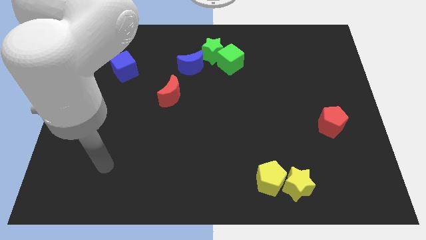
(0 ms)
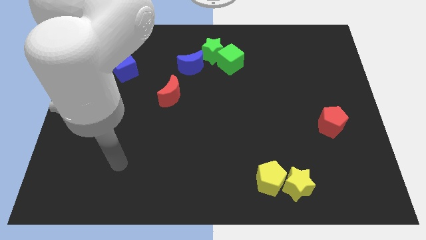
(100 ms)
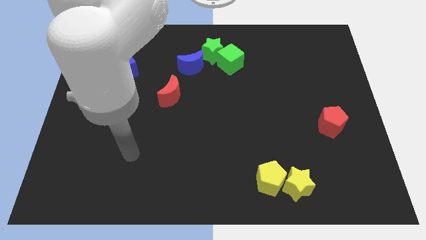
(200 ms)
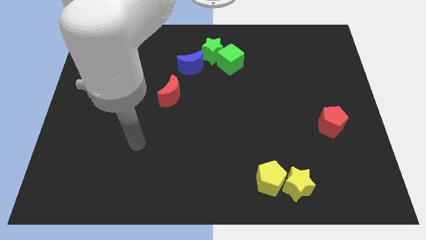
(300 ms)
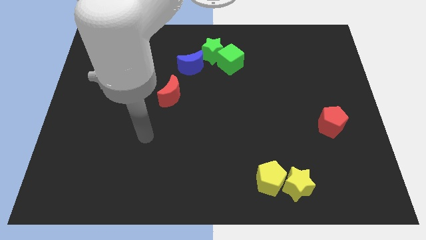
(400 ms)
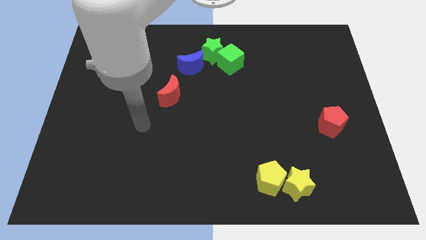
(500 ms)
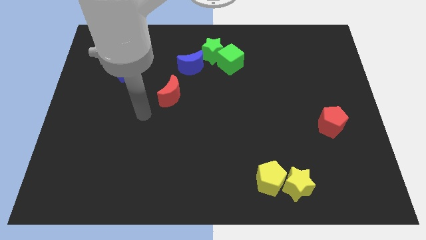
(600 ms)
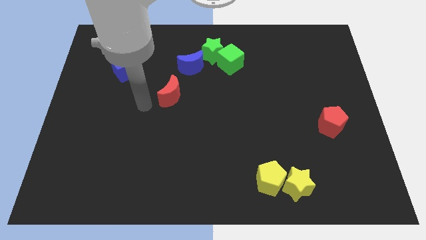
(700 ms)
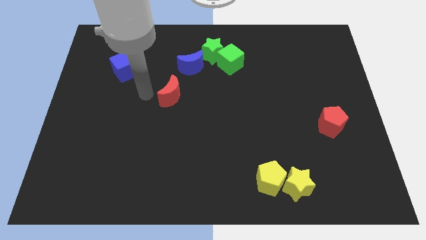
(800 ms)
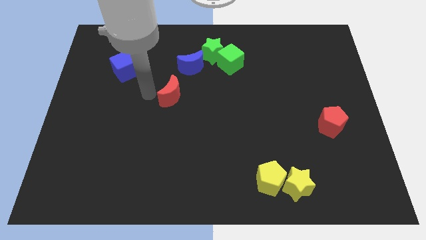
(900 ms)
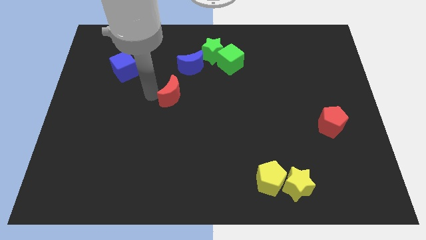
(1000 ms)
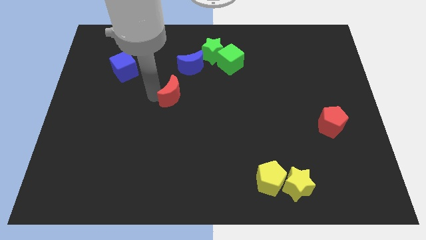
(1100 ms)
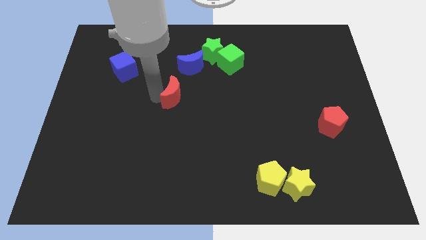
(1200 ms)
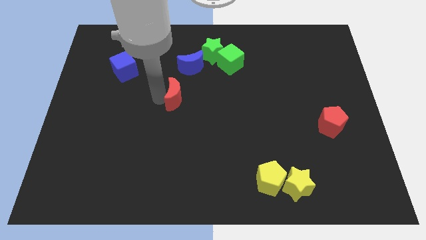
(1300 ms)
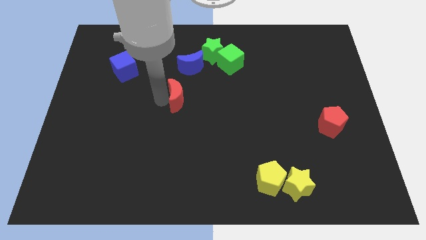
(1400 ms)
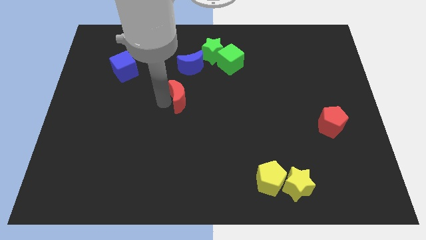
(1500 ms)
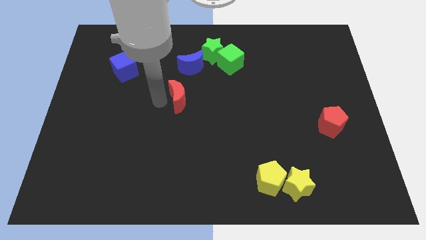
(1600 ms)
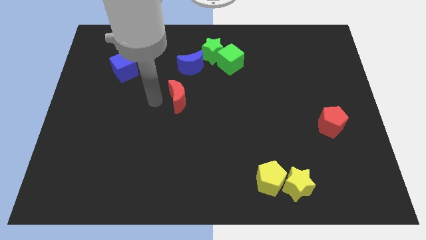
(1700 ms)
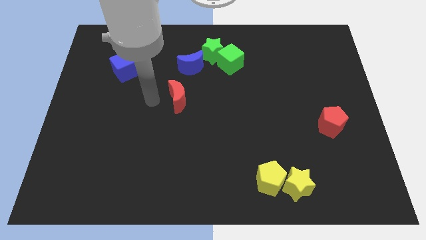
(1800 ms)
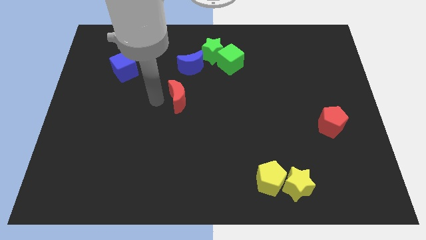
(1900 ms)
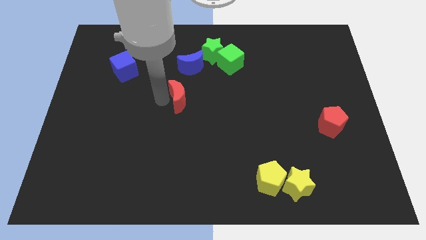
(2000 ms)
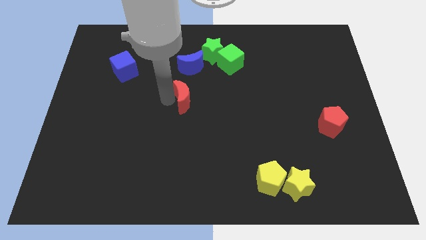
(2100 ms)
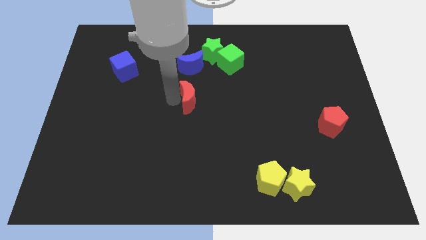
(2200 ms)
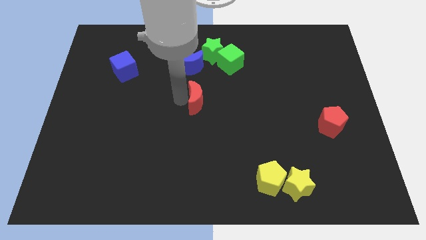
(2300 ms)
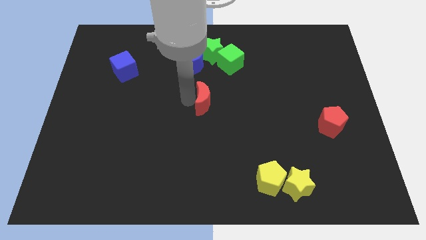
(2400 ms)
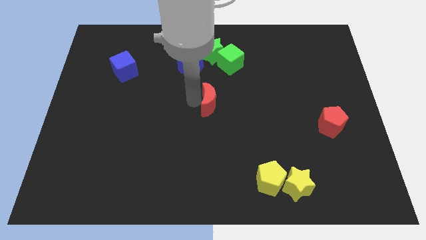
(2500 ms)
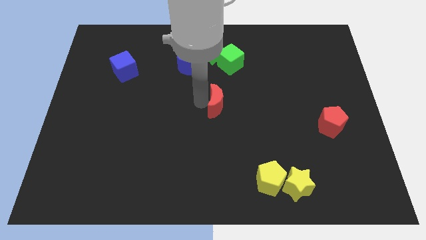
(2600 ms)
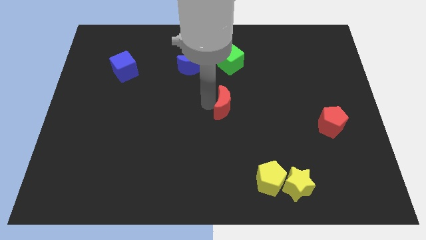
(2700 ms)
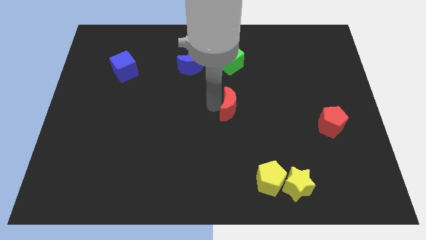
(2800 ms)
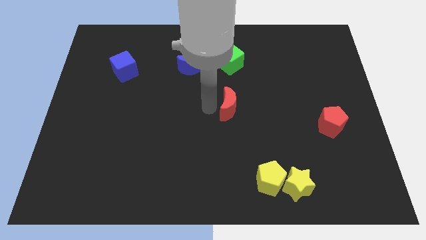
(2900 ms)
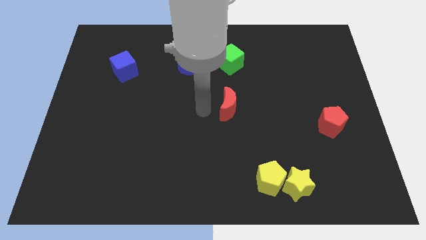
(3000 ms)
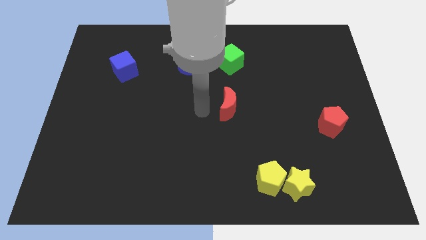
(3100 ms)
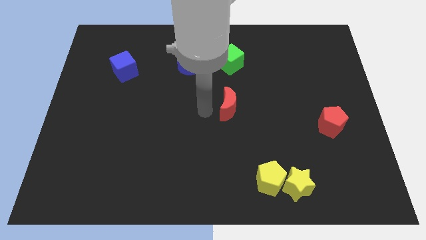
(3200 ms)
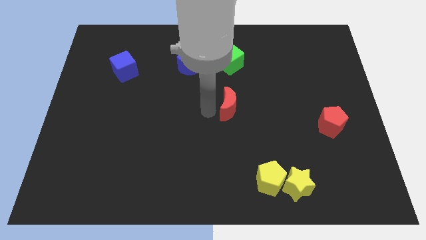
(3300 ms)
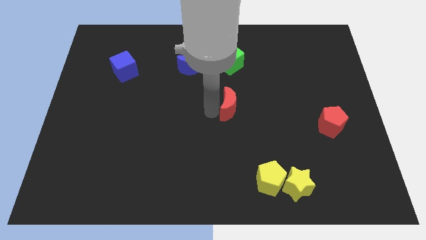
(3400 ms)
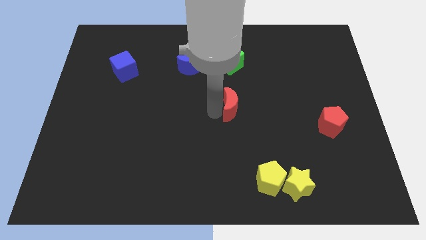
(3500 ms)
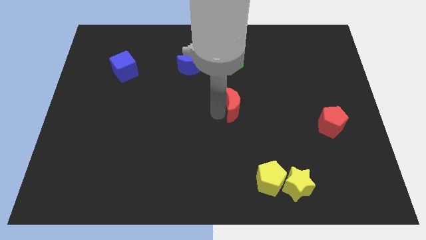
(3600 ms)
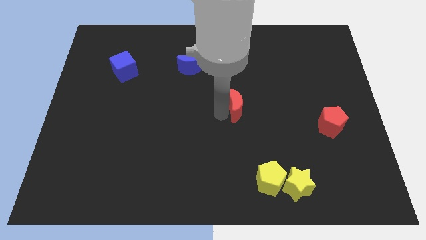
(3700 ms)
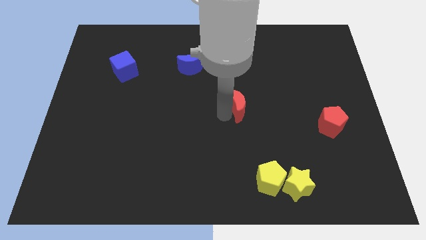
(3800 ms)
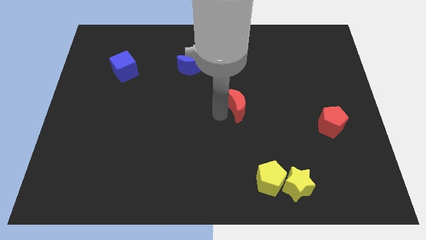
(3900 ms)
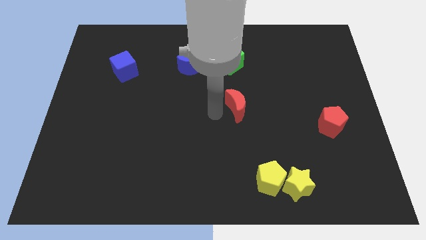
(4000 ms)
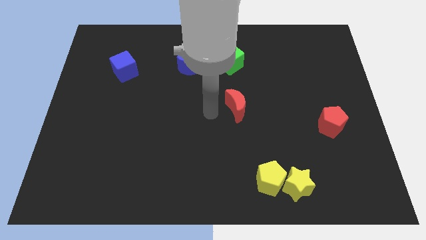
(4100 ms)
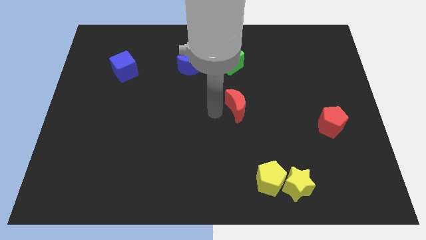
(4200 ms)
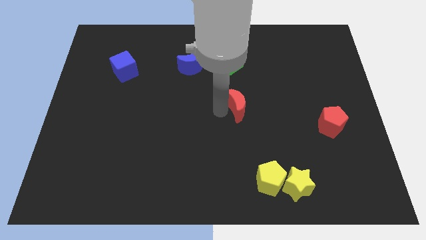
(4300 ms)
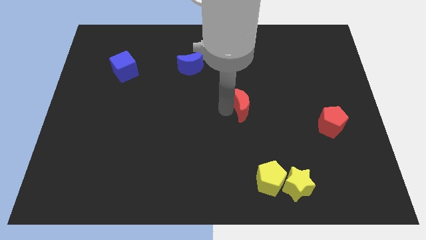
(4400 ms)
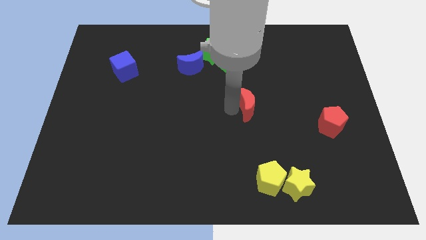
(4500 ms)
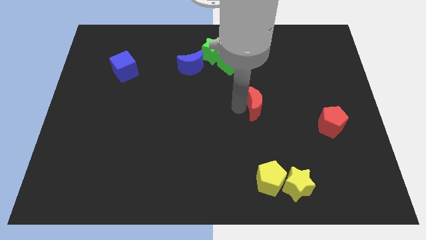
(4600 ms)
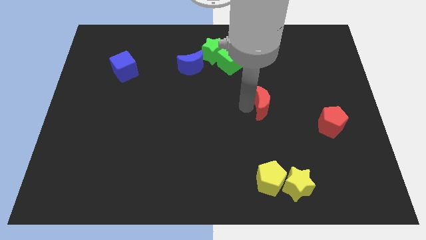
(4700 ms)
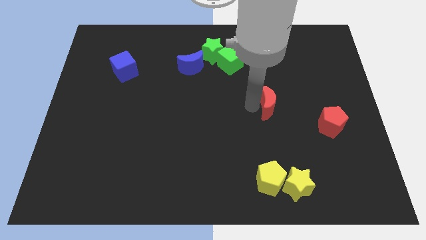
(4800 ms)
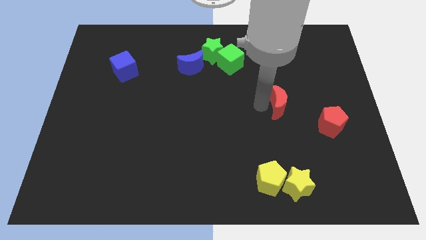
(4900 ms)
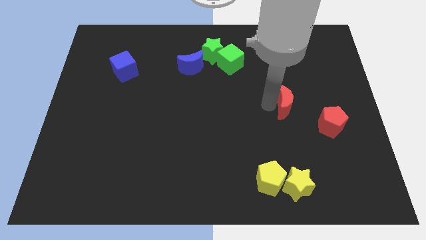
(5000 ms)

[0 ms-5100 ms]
push the red moon to the top left of the red pentagon

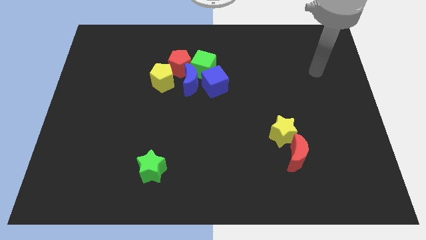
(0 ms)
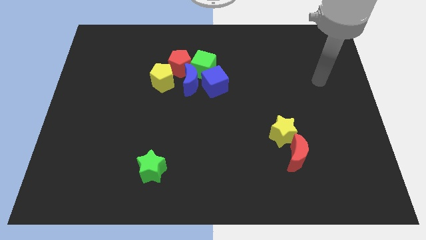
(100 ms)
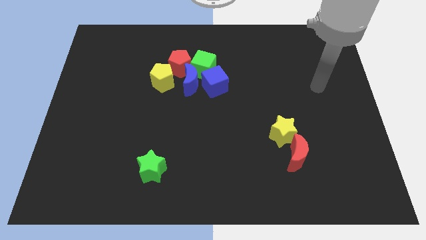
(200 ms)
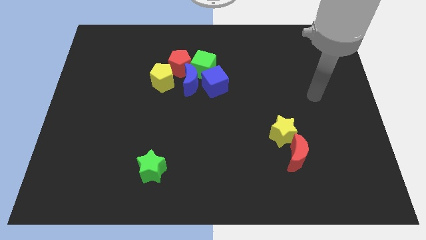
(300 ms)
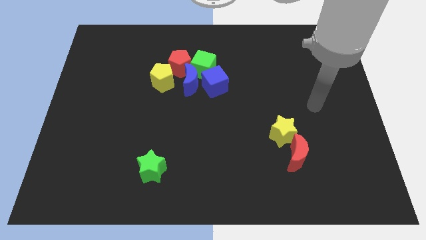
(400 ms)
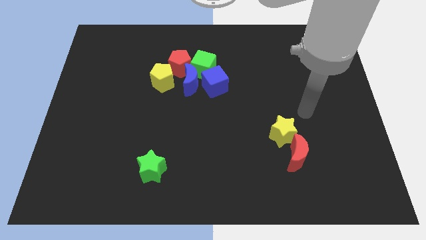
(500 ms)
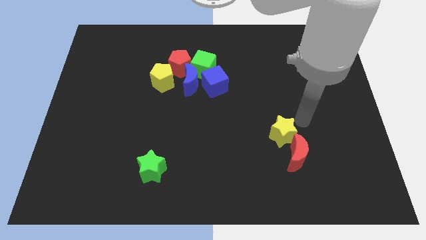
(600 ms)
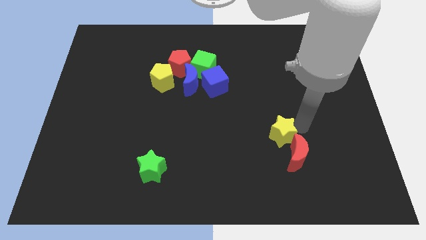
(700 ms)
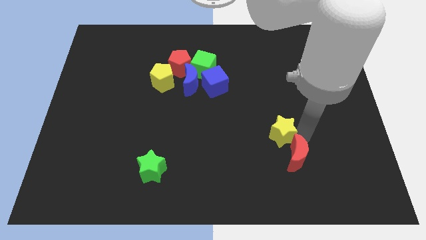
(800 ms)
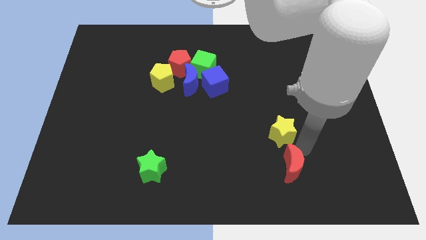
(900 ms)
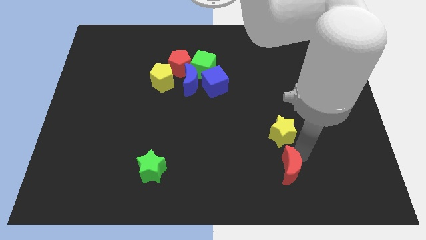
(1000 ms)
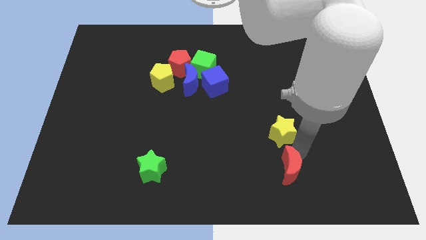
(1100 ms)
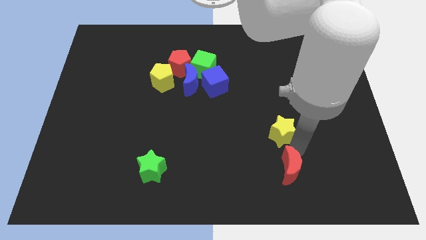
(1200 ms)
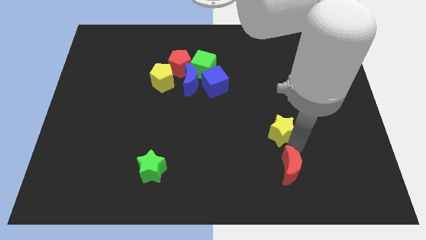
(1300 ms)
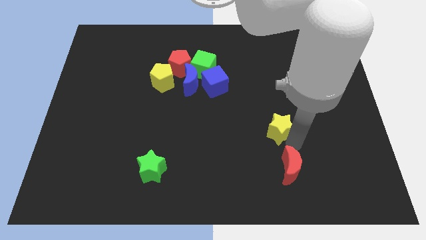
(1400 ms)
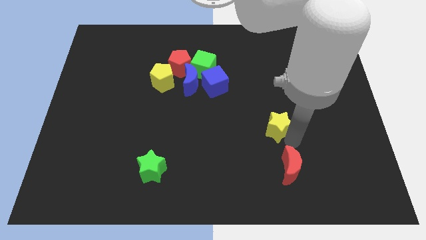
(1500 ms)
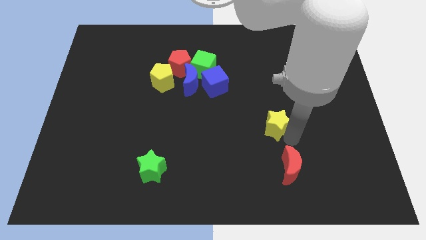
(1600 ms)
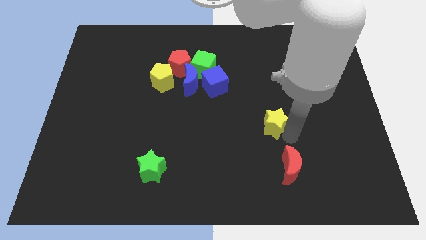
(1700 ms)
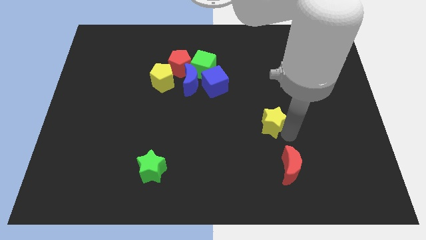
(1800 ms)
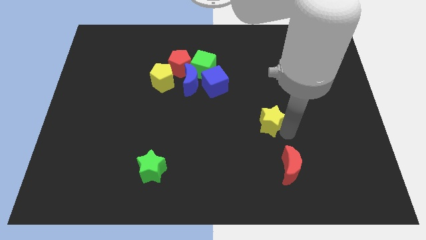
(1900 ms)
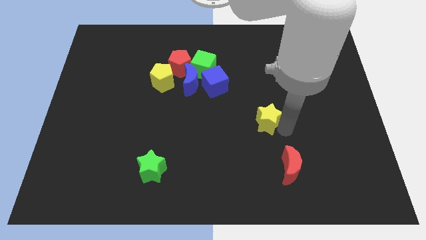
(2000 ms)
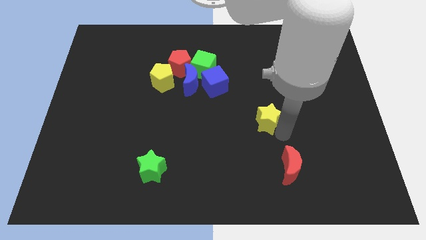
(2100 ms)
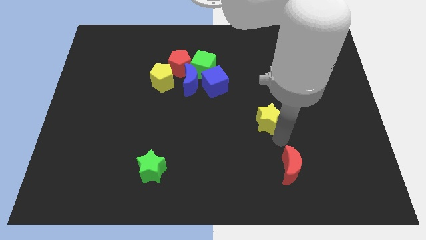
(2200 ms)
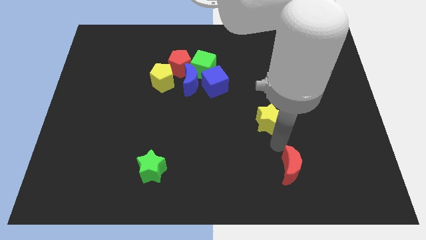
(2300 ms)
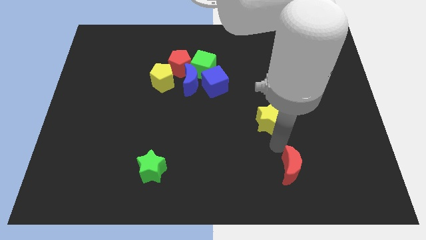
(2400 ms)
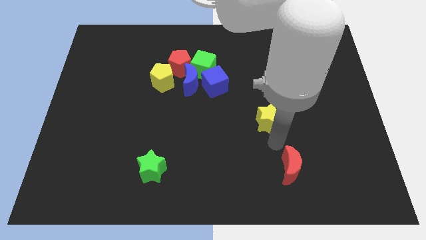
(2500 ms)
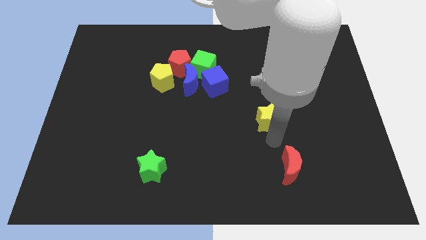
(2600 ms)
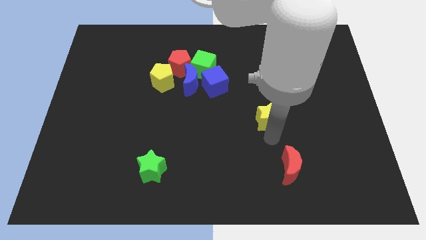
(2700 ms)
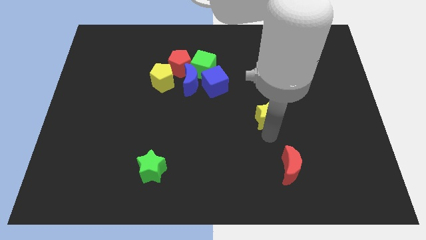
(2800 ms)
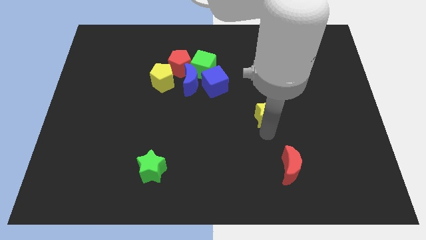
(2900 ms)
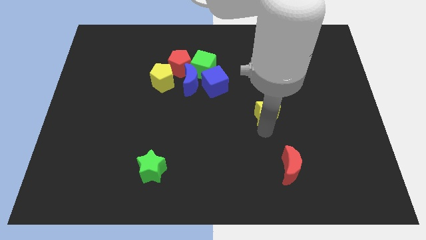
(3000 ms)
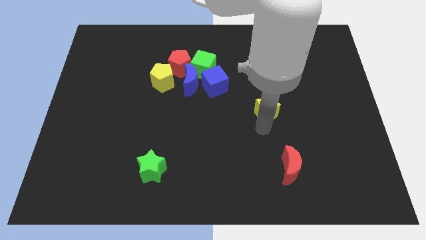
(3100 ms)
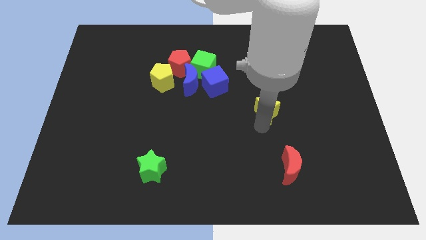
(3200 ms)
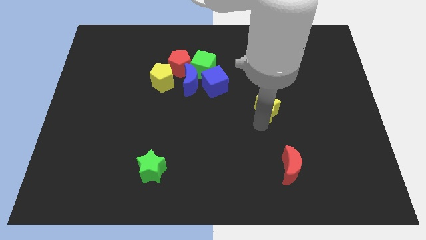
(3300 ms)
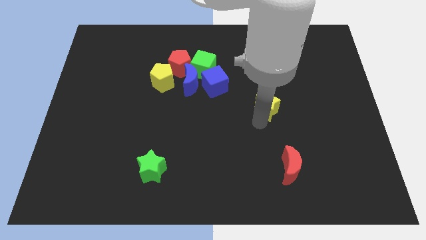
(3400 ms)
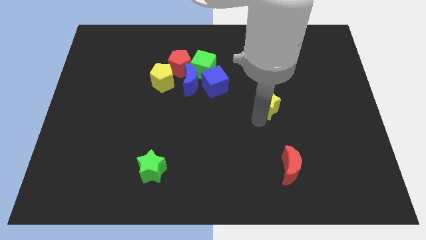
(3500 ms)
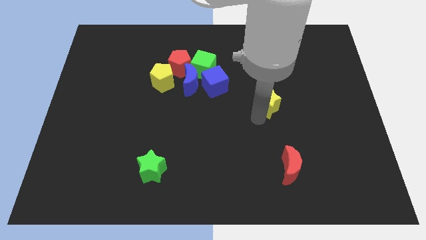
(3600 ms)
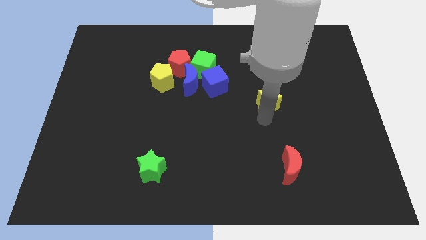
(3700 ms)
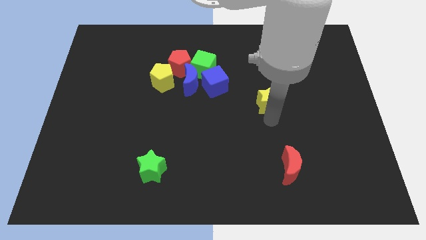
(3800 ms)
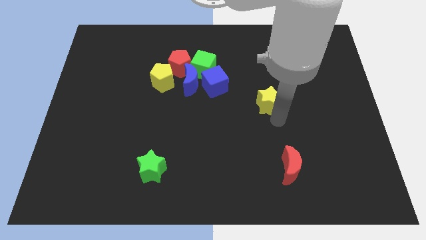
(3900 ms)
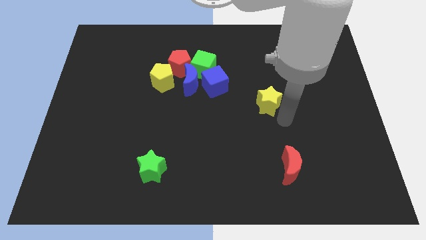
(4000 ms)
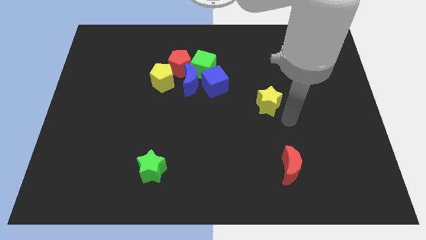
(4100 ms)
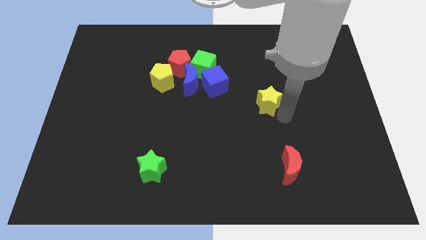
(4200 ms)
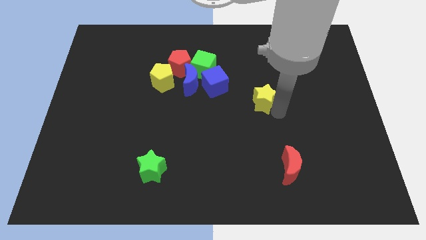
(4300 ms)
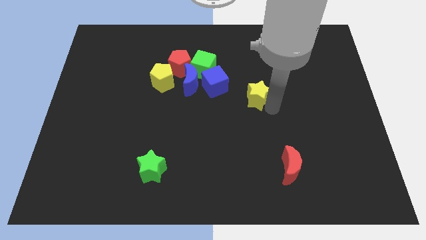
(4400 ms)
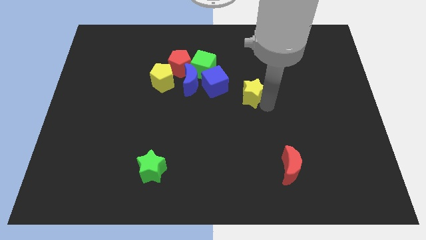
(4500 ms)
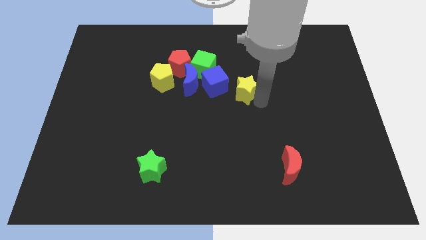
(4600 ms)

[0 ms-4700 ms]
put the yellow star to the right of the blue moon
